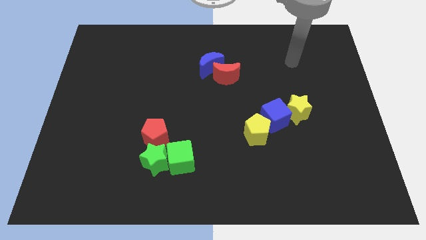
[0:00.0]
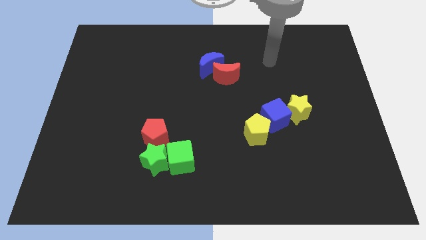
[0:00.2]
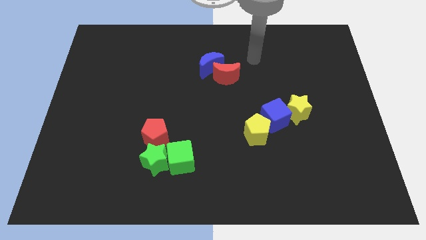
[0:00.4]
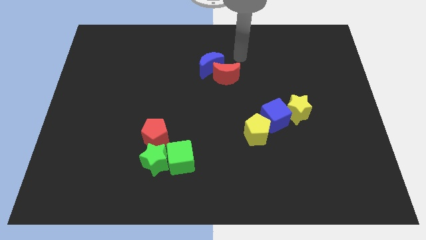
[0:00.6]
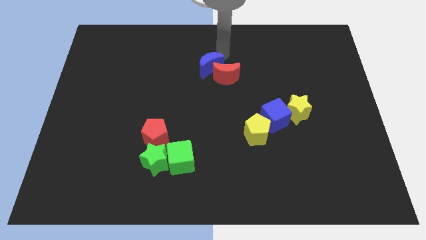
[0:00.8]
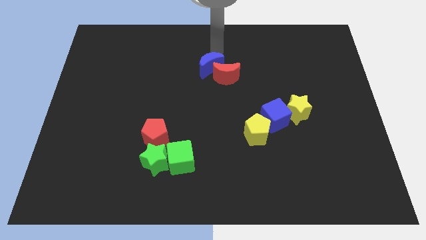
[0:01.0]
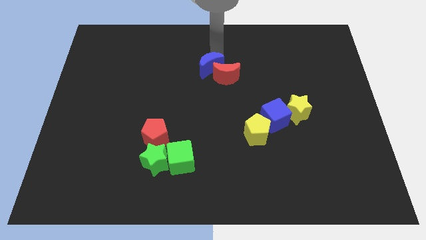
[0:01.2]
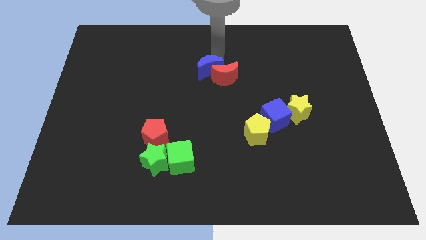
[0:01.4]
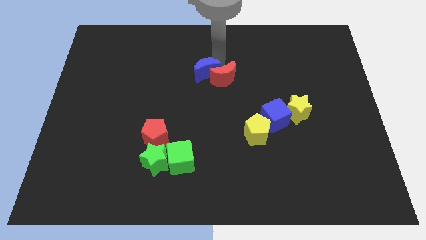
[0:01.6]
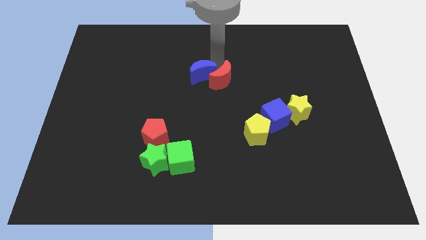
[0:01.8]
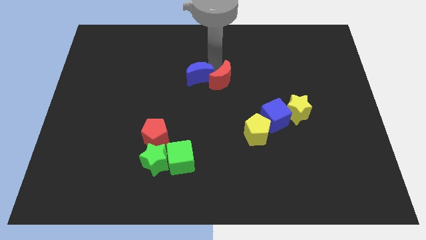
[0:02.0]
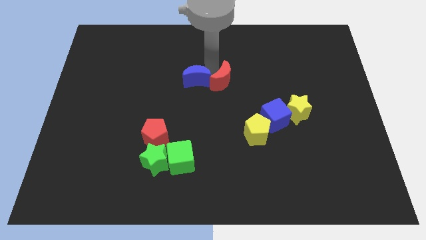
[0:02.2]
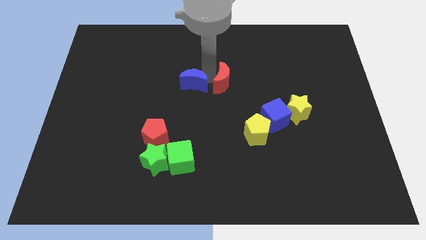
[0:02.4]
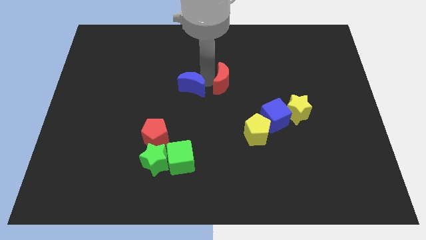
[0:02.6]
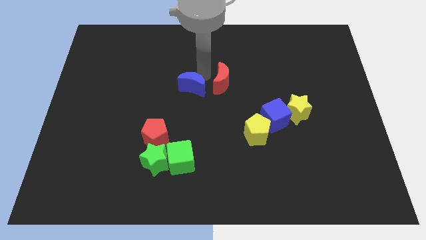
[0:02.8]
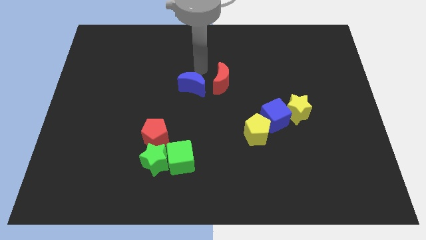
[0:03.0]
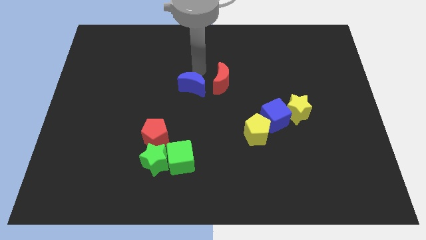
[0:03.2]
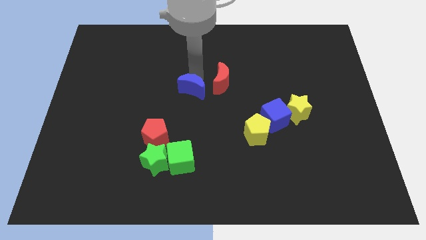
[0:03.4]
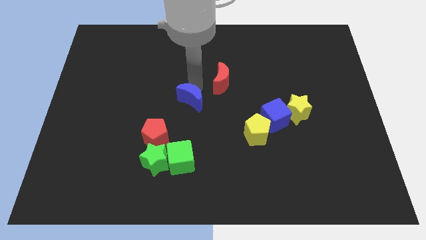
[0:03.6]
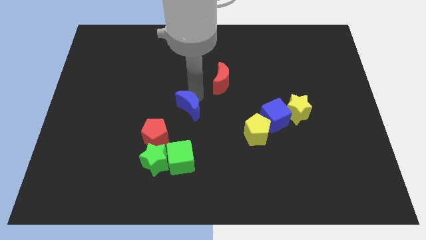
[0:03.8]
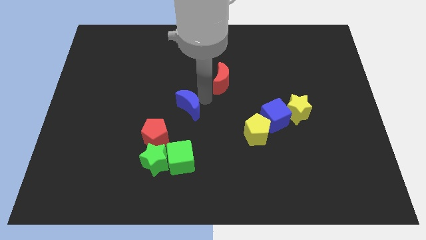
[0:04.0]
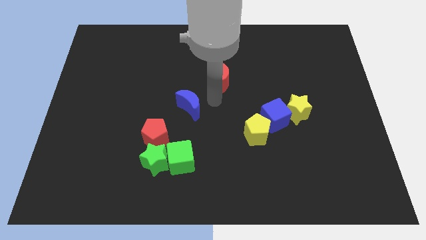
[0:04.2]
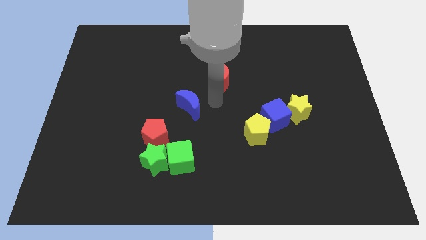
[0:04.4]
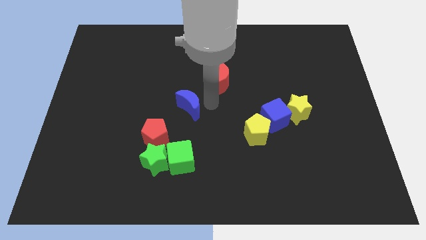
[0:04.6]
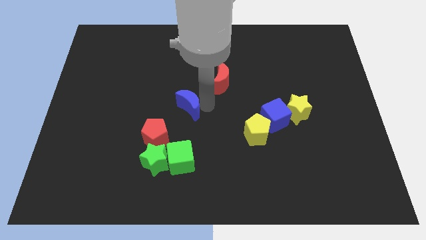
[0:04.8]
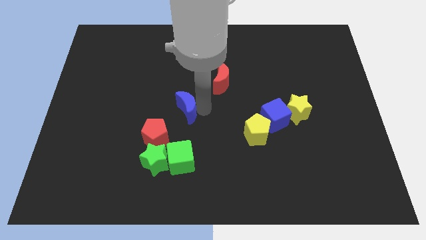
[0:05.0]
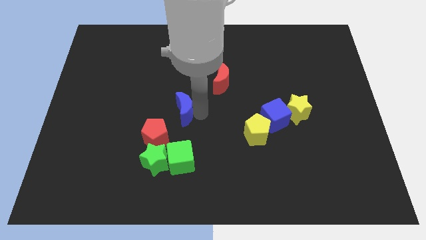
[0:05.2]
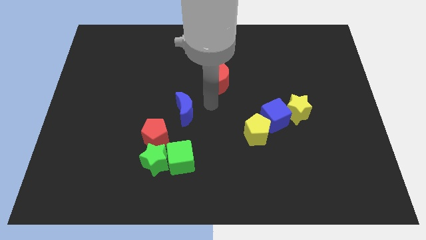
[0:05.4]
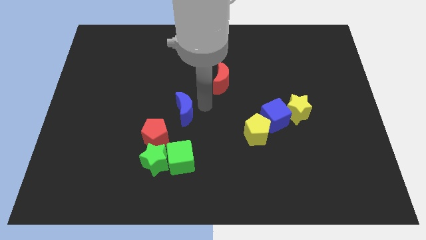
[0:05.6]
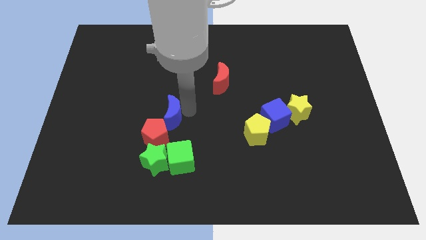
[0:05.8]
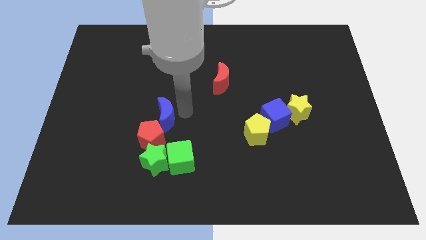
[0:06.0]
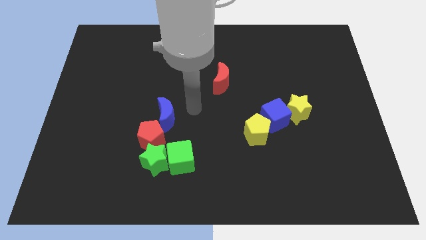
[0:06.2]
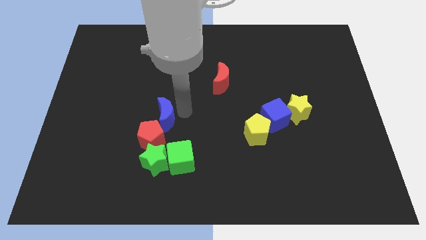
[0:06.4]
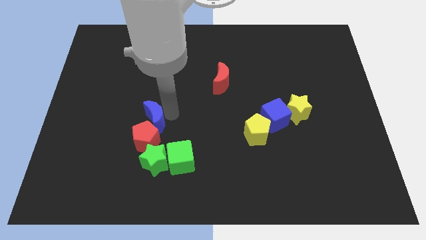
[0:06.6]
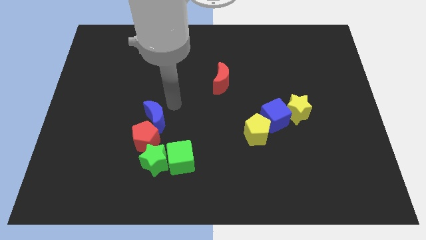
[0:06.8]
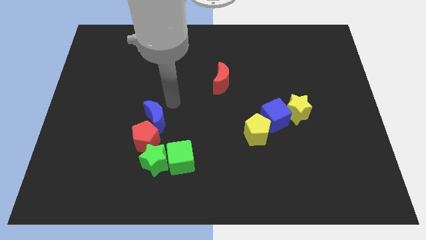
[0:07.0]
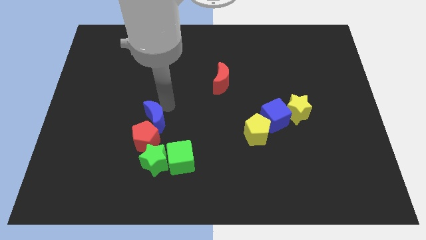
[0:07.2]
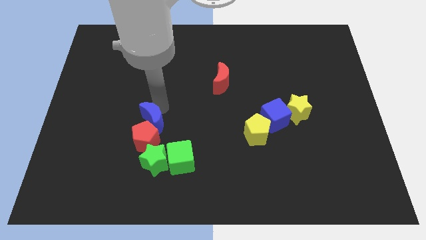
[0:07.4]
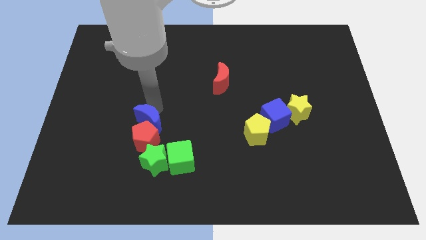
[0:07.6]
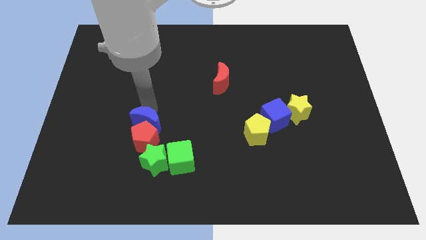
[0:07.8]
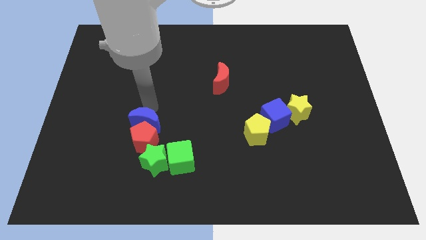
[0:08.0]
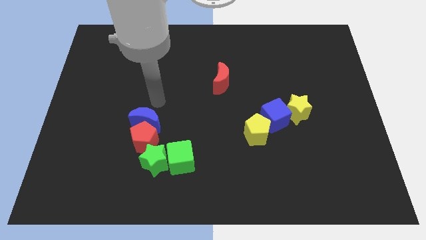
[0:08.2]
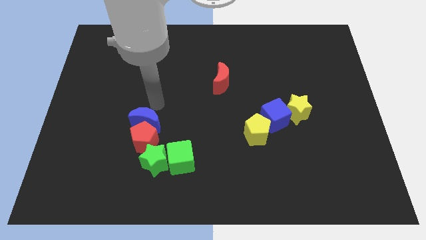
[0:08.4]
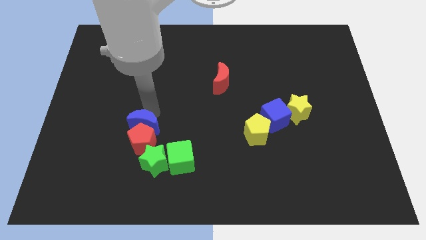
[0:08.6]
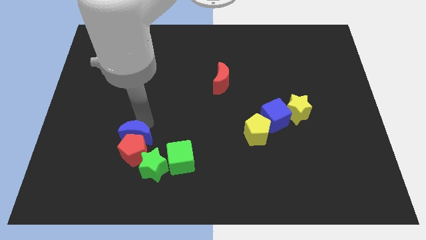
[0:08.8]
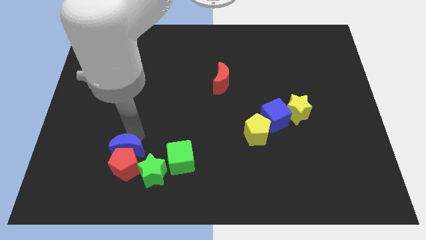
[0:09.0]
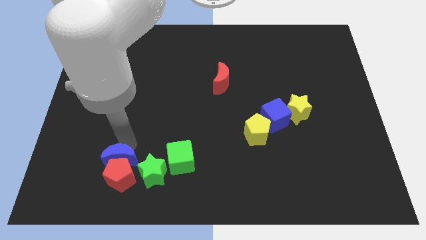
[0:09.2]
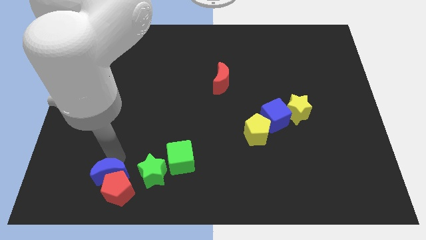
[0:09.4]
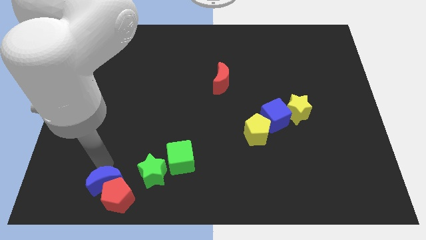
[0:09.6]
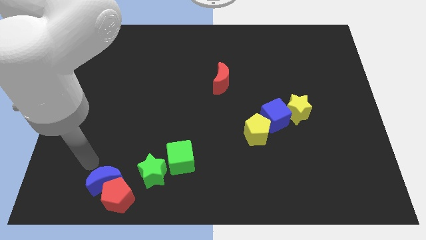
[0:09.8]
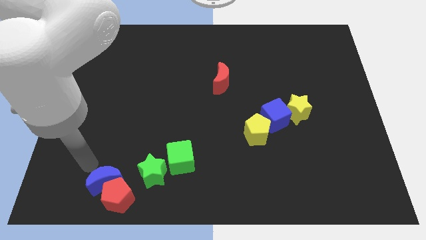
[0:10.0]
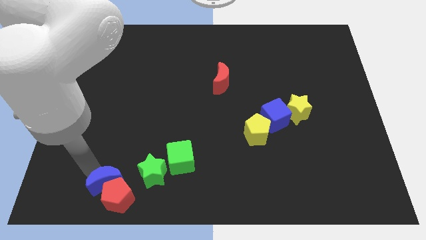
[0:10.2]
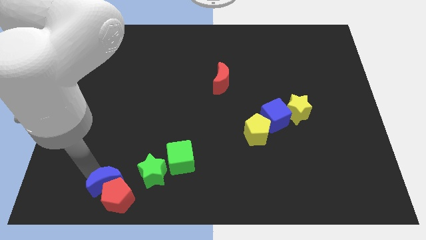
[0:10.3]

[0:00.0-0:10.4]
move the blue moon to the bottom left side of the green star

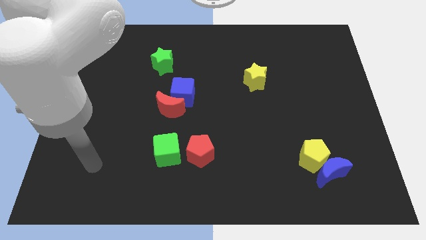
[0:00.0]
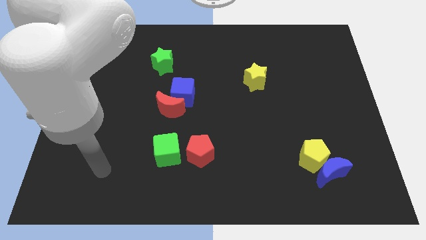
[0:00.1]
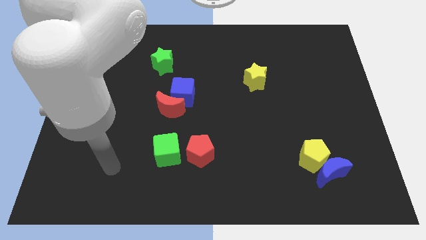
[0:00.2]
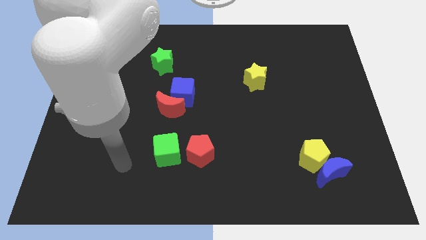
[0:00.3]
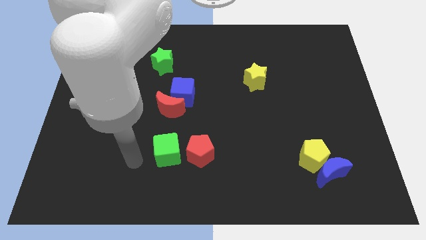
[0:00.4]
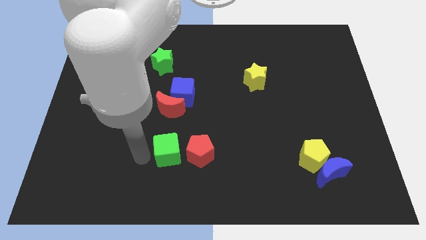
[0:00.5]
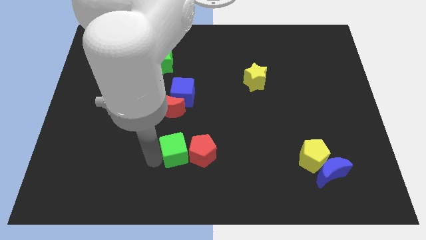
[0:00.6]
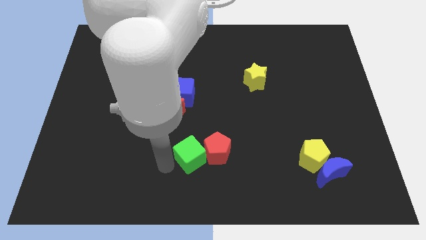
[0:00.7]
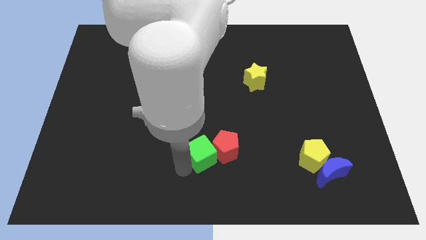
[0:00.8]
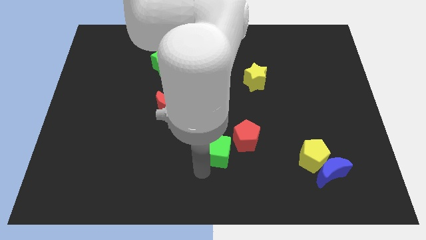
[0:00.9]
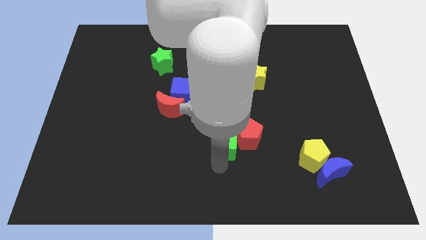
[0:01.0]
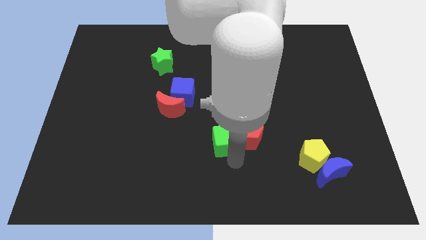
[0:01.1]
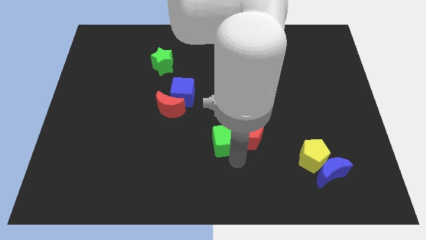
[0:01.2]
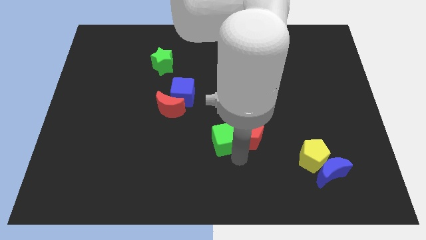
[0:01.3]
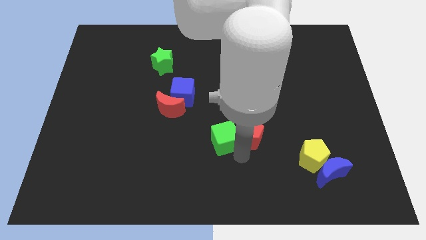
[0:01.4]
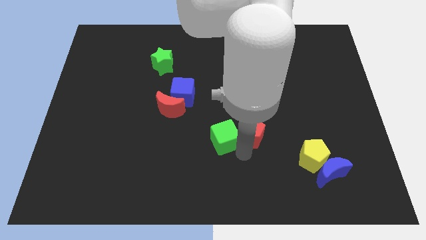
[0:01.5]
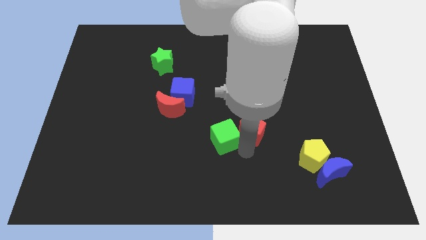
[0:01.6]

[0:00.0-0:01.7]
push the red pentagon below the yellow star
